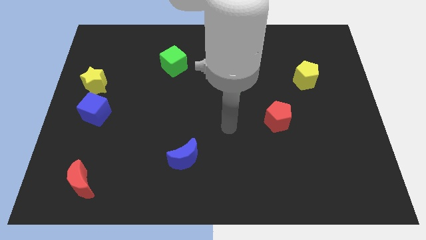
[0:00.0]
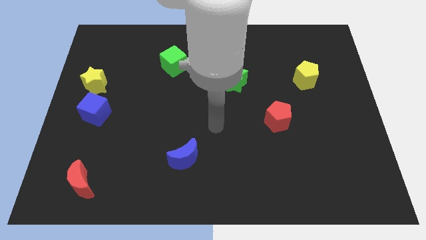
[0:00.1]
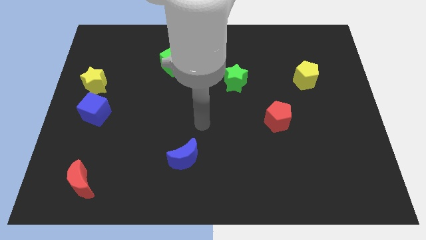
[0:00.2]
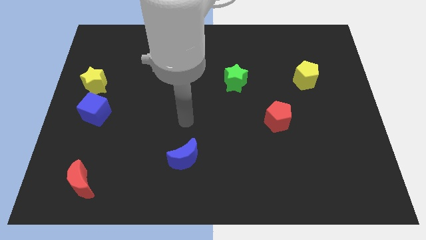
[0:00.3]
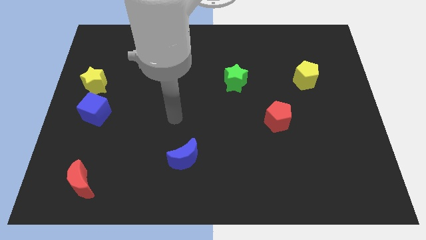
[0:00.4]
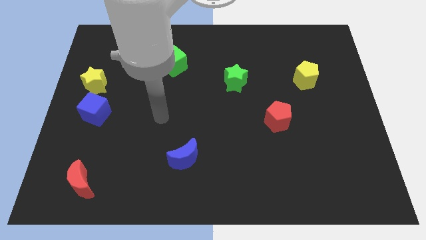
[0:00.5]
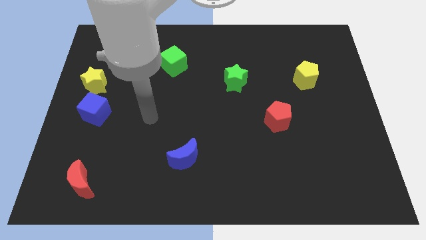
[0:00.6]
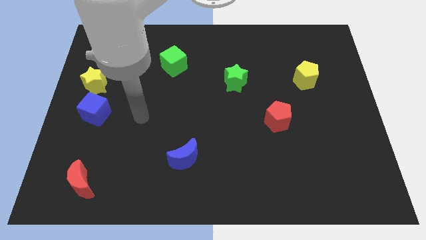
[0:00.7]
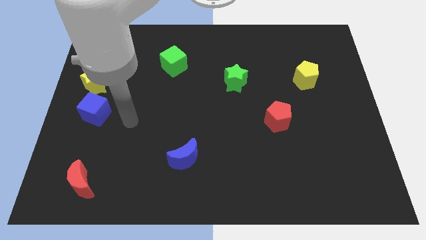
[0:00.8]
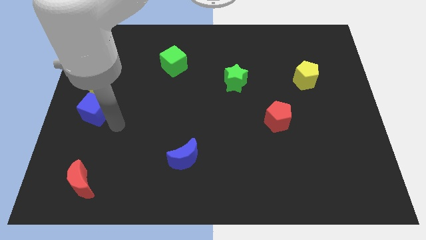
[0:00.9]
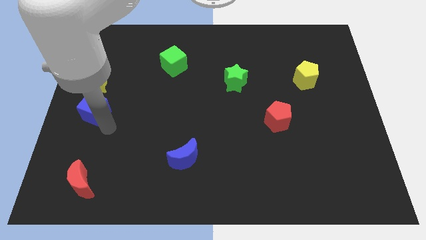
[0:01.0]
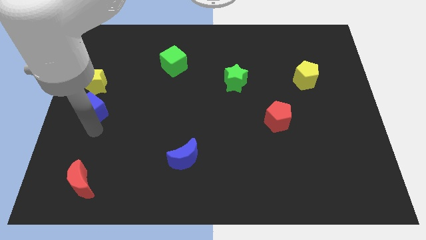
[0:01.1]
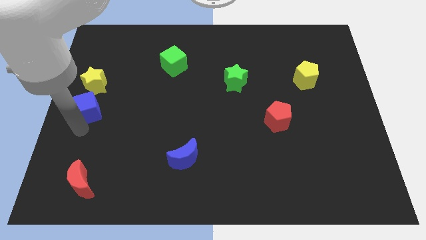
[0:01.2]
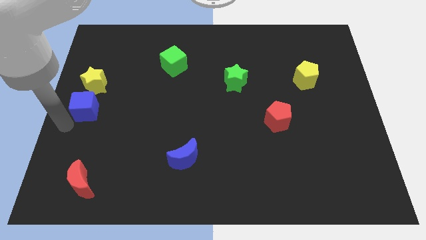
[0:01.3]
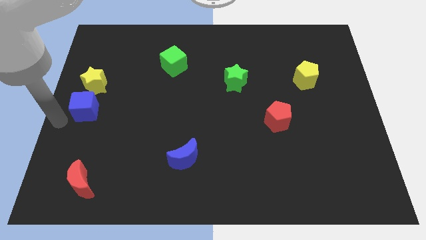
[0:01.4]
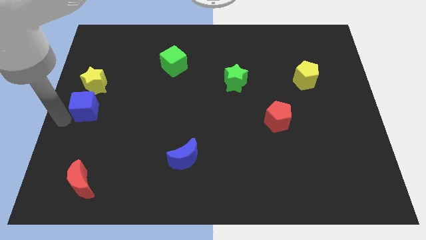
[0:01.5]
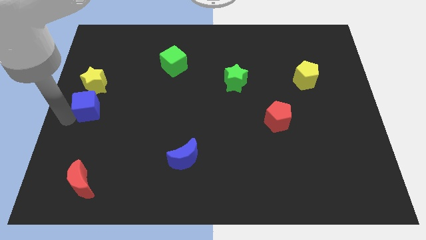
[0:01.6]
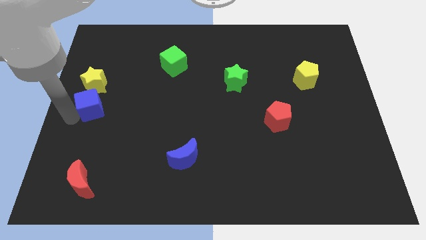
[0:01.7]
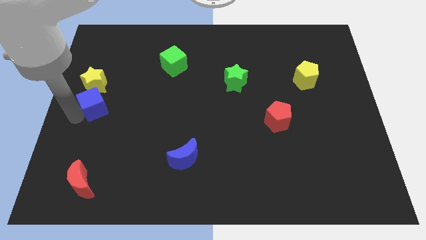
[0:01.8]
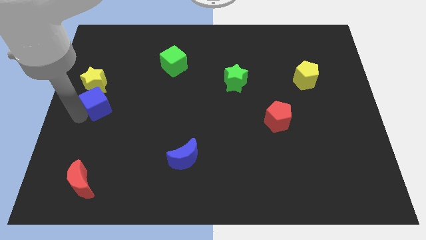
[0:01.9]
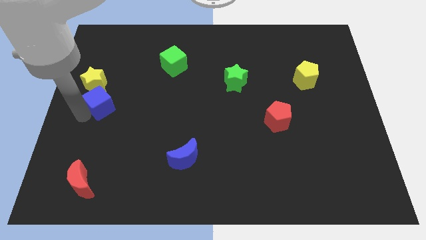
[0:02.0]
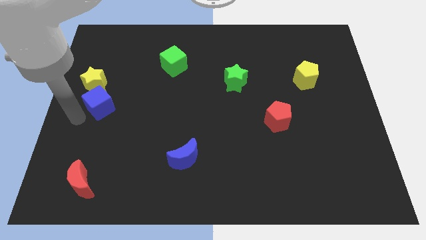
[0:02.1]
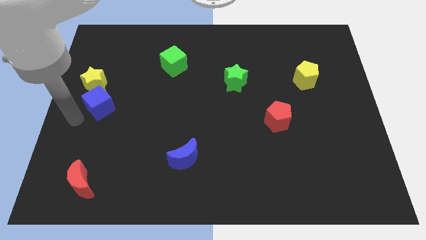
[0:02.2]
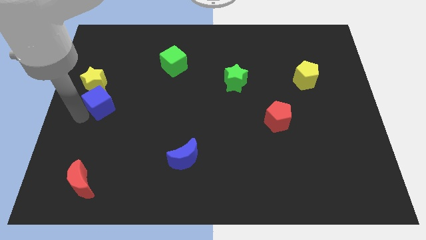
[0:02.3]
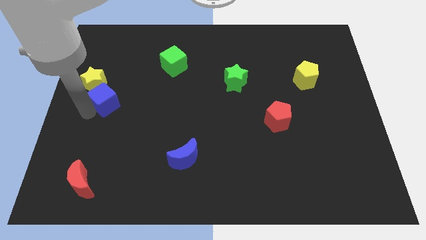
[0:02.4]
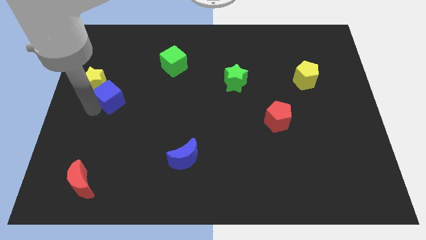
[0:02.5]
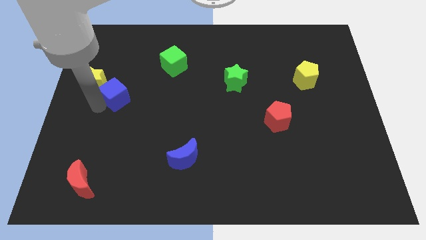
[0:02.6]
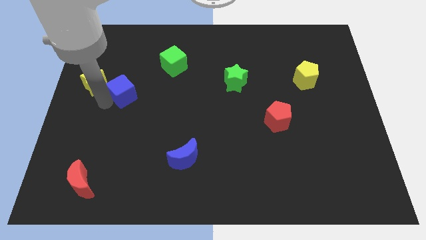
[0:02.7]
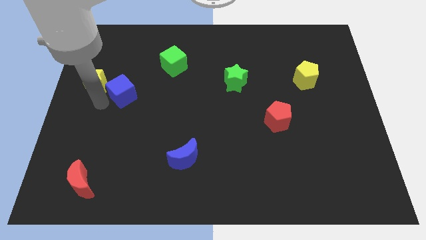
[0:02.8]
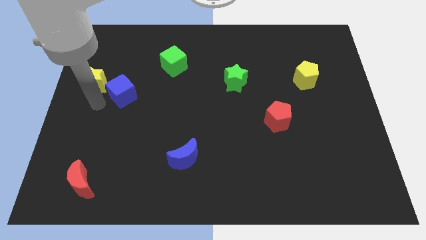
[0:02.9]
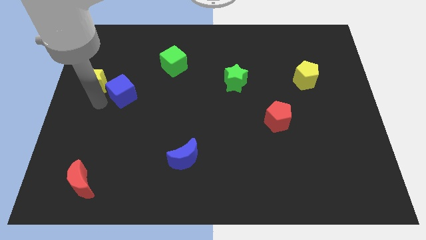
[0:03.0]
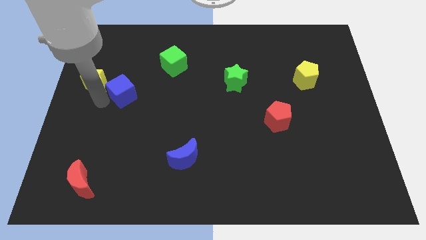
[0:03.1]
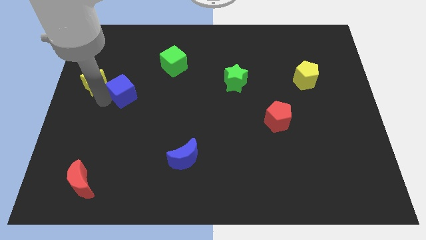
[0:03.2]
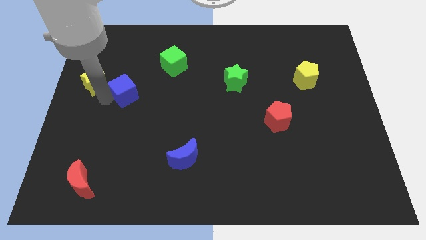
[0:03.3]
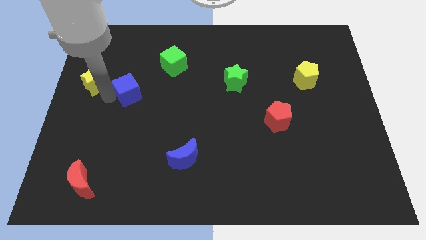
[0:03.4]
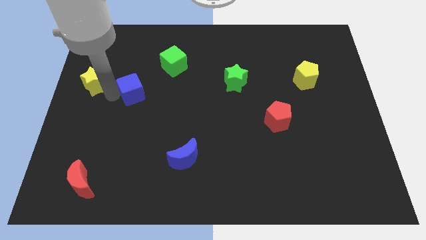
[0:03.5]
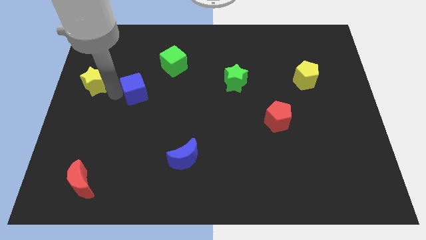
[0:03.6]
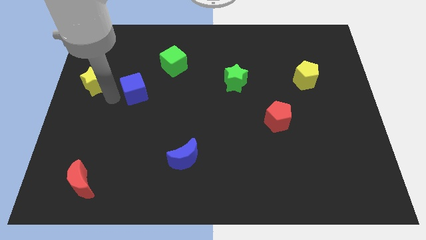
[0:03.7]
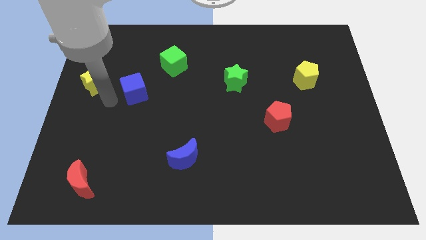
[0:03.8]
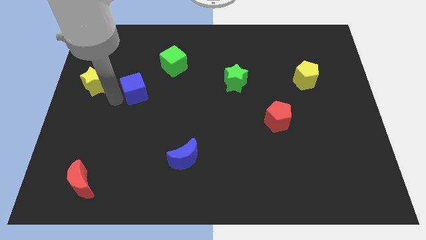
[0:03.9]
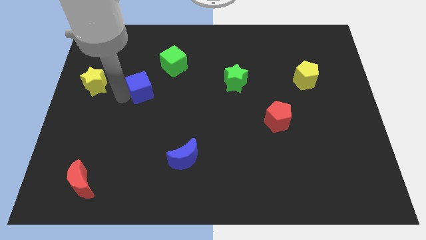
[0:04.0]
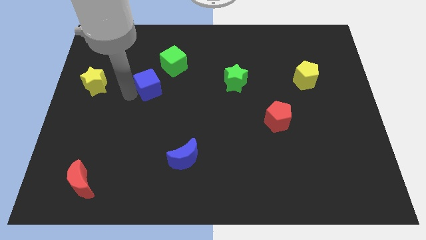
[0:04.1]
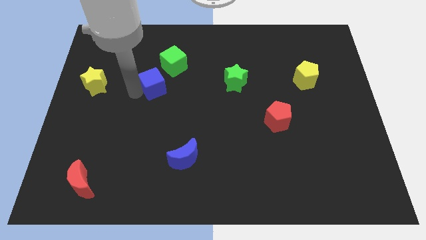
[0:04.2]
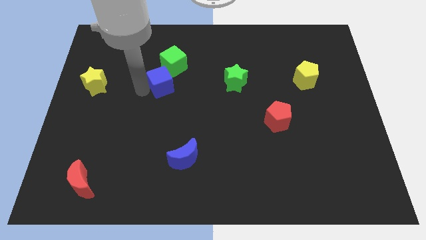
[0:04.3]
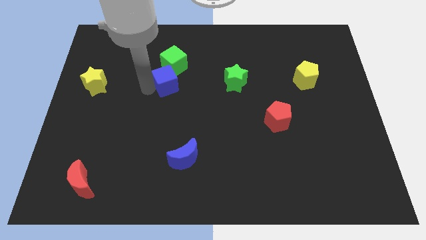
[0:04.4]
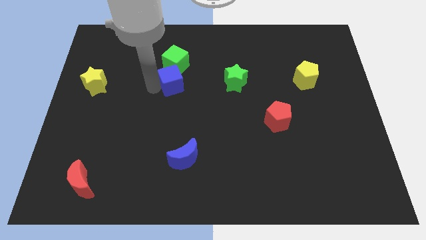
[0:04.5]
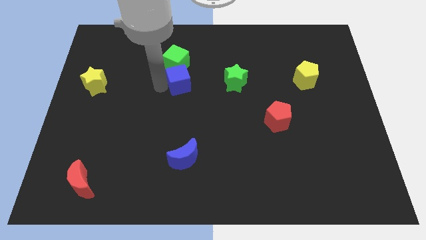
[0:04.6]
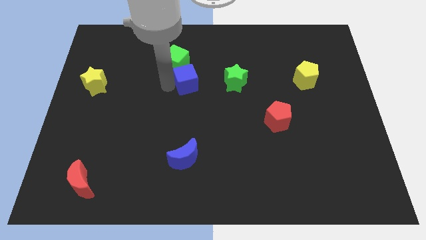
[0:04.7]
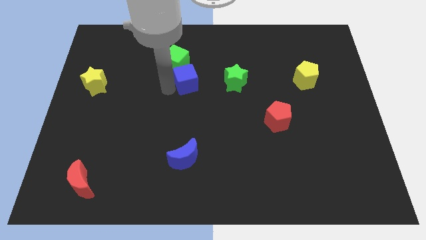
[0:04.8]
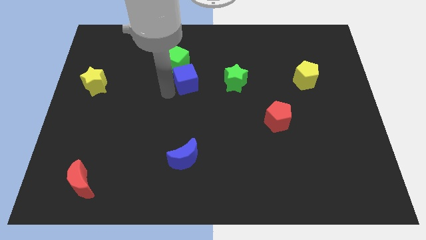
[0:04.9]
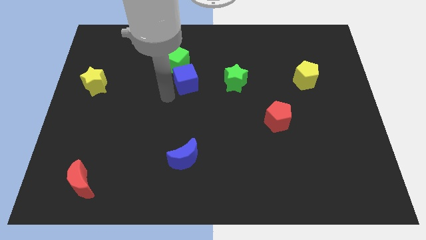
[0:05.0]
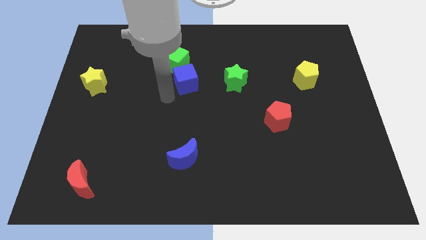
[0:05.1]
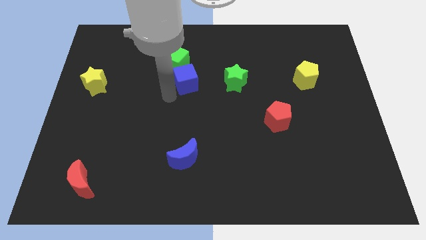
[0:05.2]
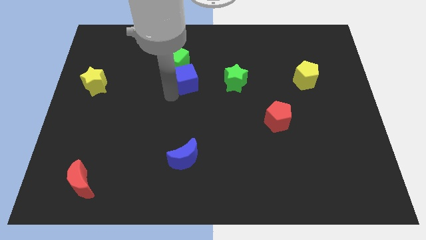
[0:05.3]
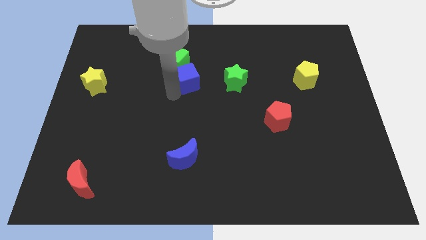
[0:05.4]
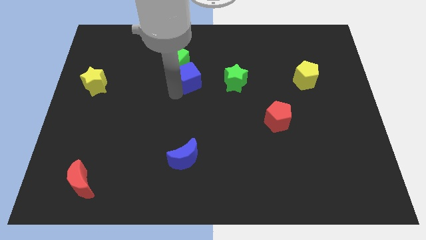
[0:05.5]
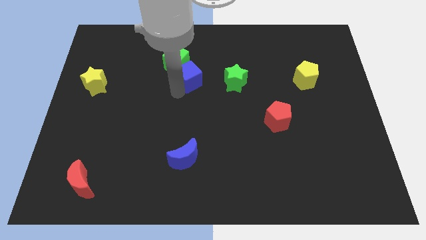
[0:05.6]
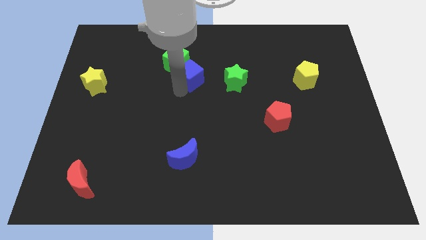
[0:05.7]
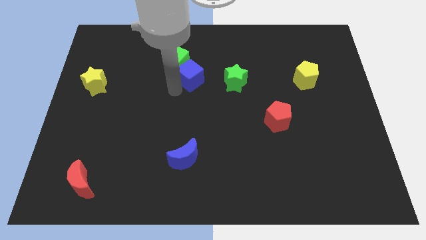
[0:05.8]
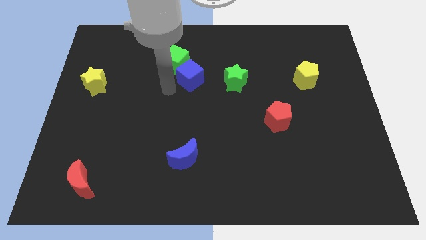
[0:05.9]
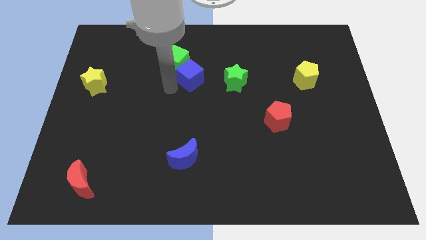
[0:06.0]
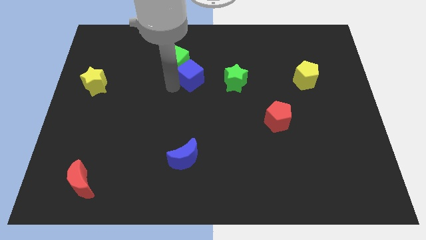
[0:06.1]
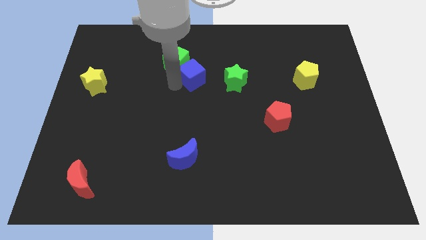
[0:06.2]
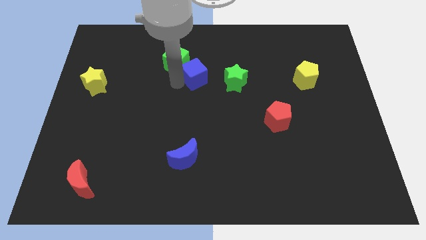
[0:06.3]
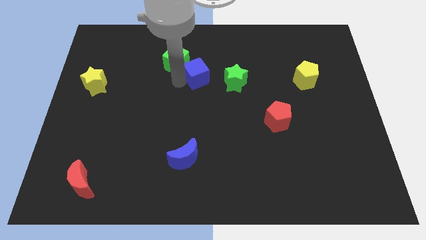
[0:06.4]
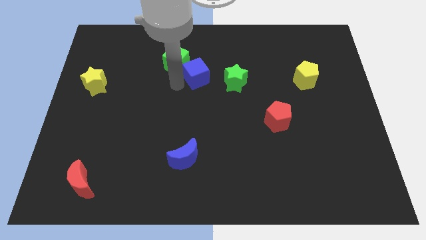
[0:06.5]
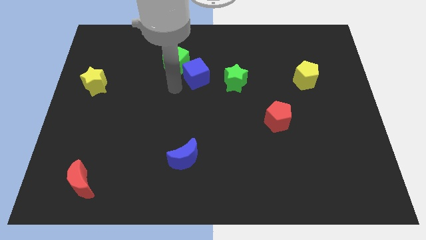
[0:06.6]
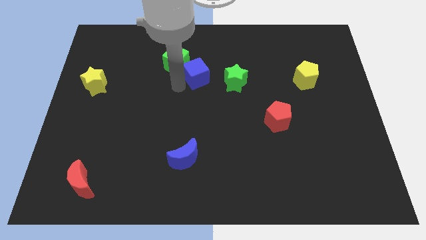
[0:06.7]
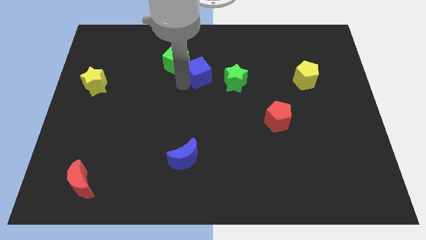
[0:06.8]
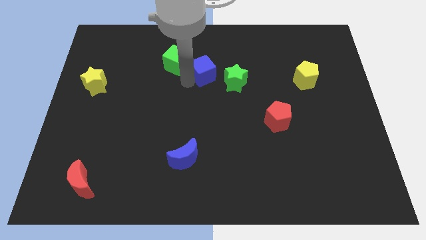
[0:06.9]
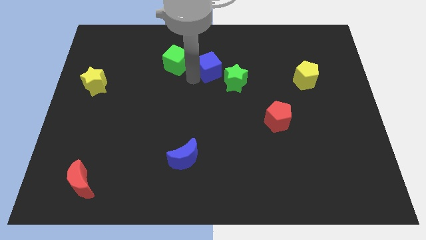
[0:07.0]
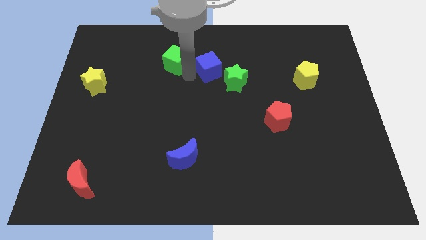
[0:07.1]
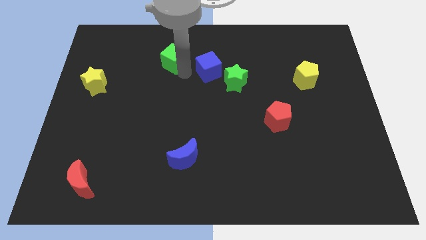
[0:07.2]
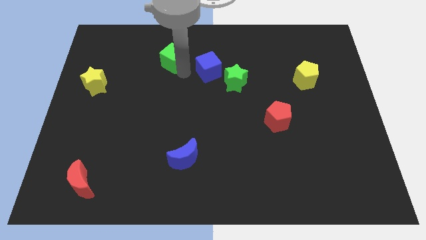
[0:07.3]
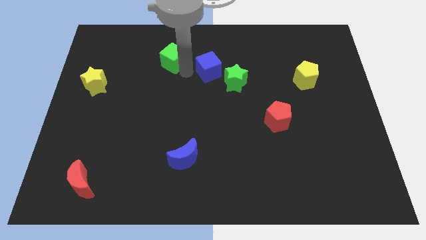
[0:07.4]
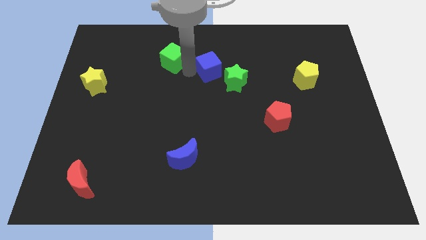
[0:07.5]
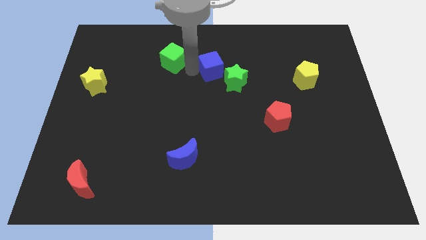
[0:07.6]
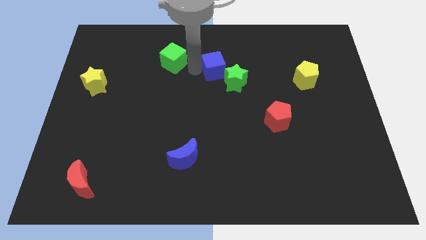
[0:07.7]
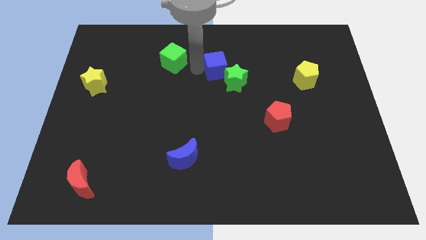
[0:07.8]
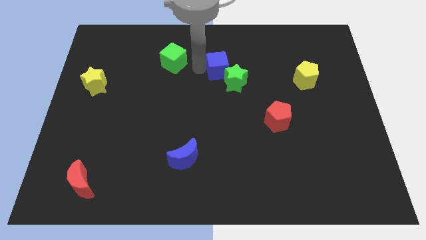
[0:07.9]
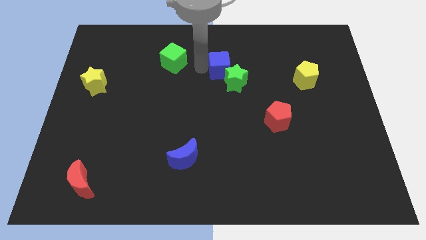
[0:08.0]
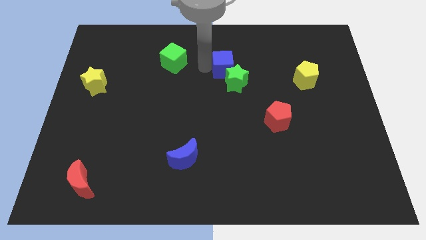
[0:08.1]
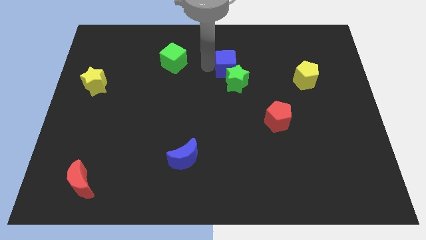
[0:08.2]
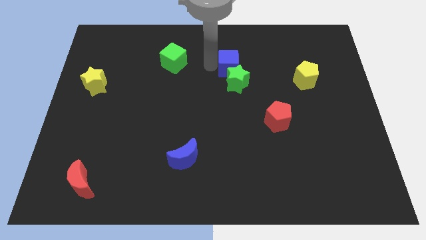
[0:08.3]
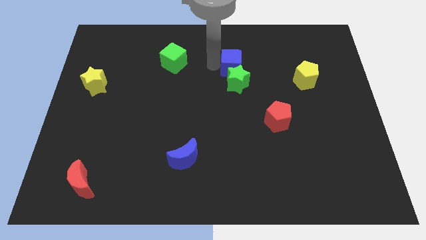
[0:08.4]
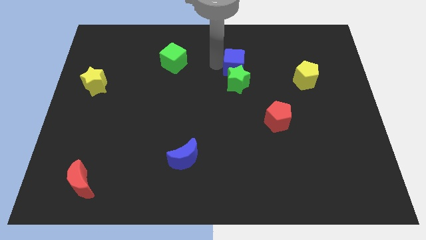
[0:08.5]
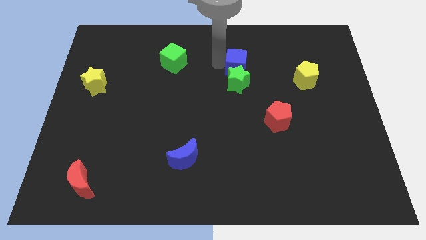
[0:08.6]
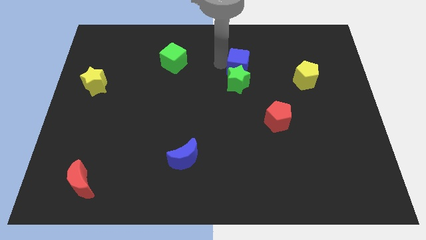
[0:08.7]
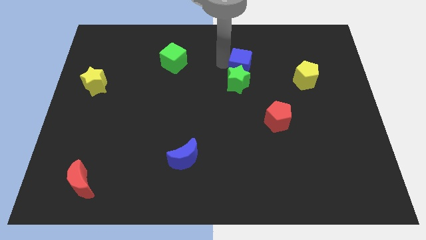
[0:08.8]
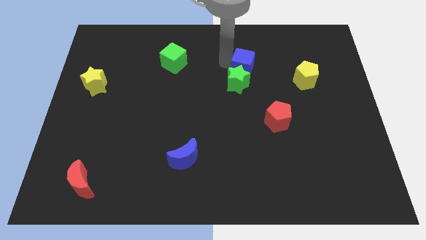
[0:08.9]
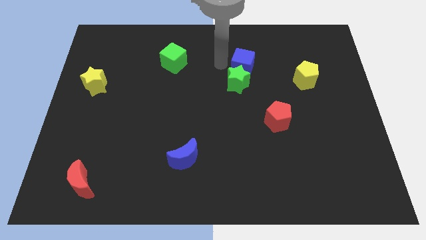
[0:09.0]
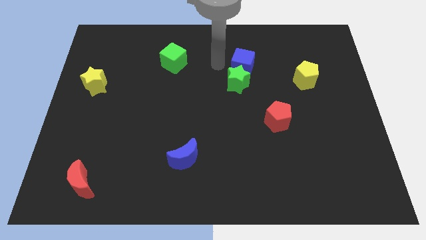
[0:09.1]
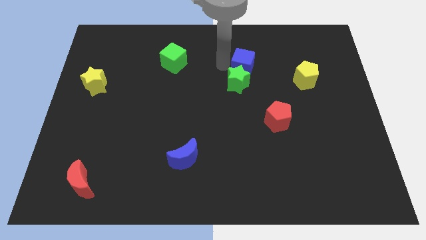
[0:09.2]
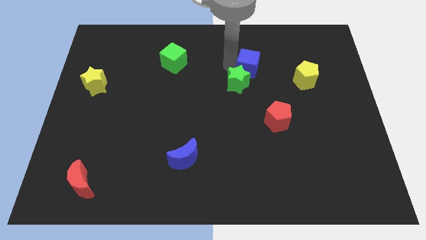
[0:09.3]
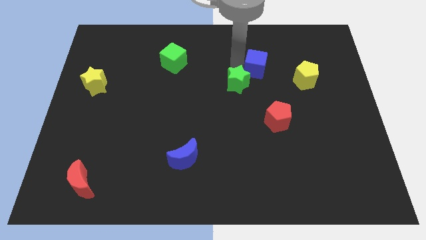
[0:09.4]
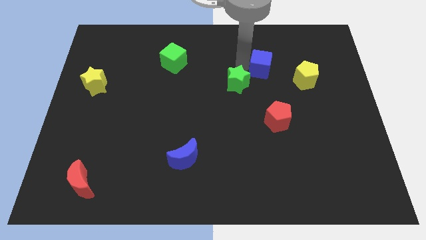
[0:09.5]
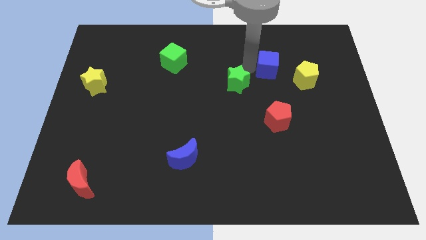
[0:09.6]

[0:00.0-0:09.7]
move the blue cube to the top left side of the yellow pentagon
